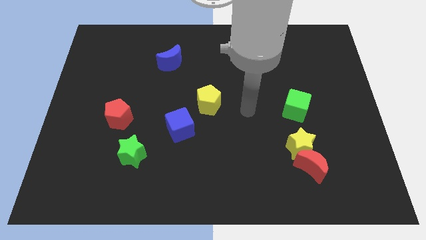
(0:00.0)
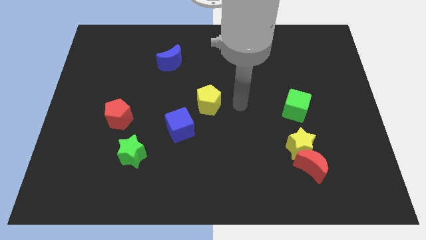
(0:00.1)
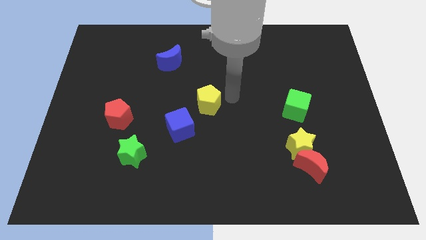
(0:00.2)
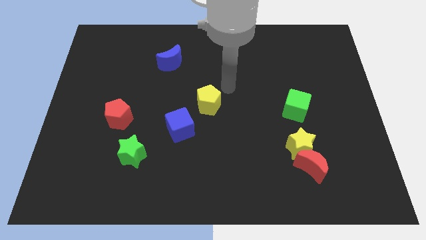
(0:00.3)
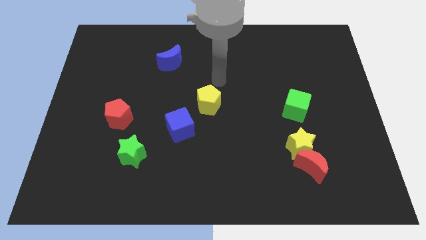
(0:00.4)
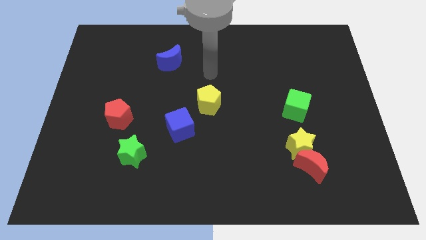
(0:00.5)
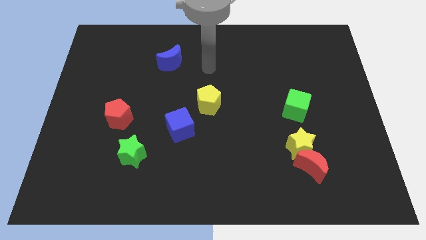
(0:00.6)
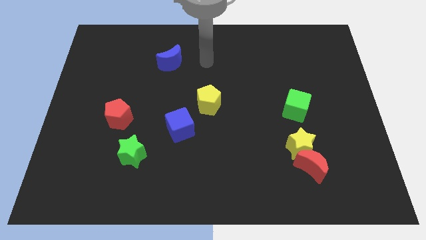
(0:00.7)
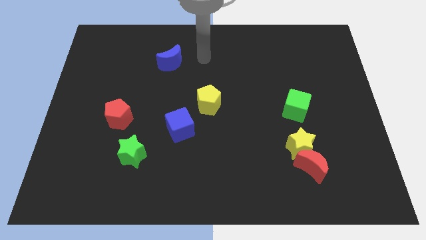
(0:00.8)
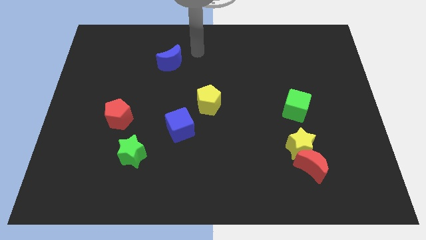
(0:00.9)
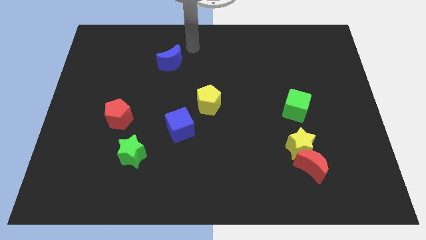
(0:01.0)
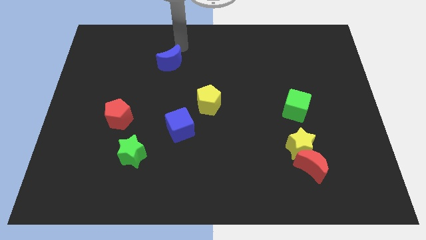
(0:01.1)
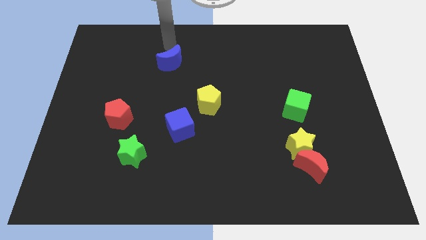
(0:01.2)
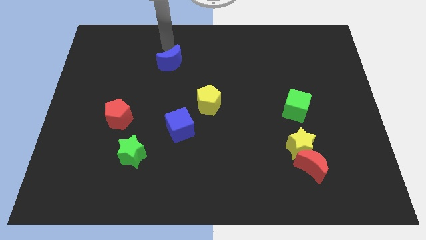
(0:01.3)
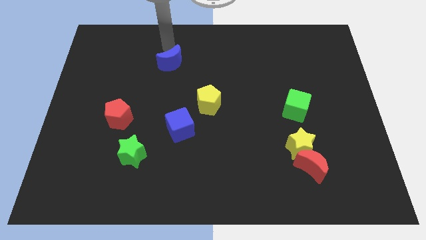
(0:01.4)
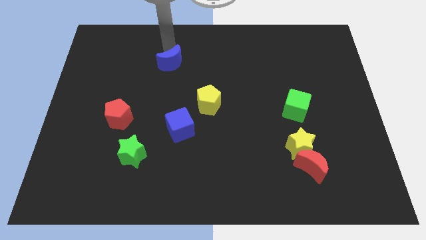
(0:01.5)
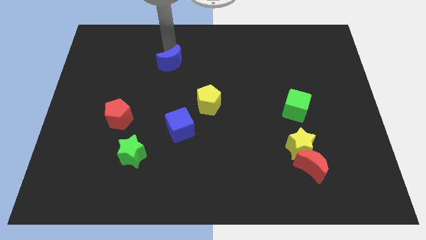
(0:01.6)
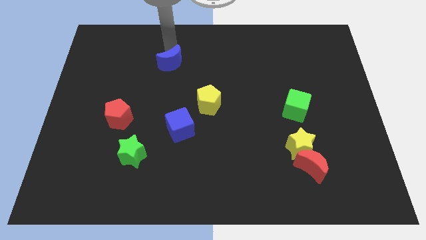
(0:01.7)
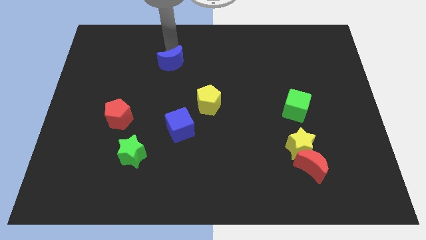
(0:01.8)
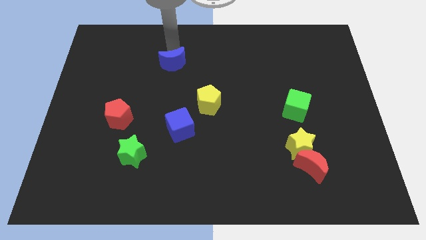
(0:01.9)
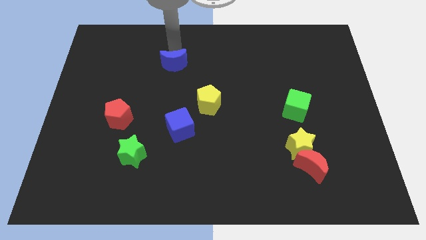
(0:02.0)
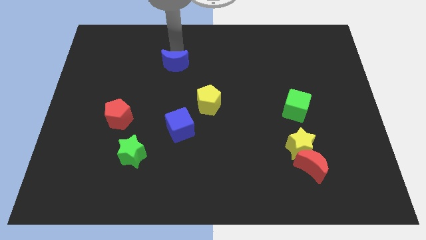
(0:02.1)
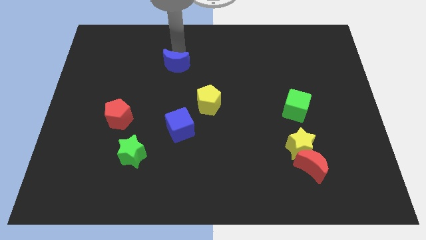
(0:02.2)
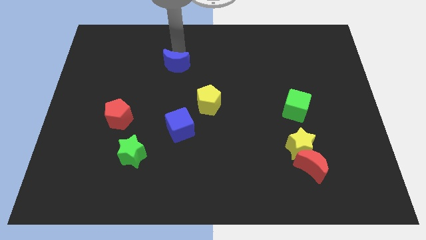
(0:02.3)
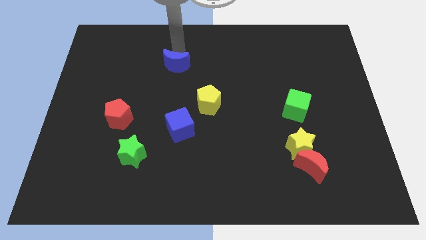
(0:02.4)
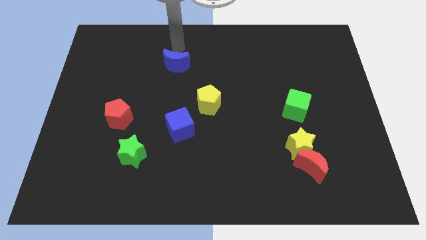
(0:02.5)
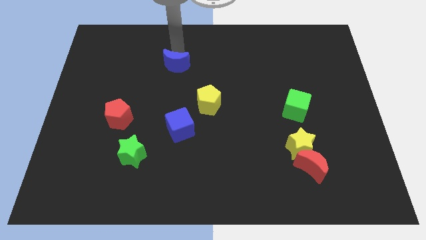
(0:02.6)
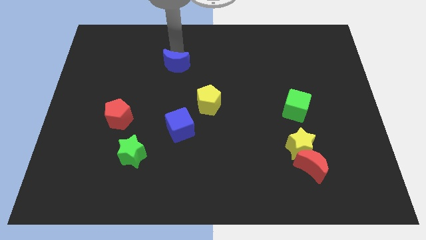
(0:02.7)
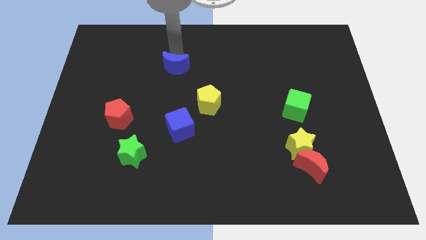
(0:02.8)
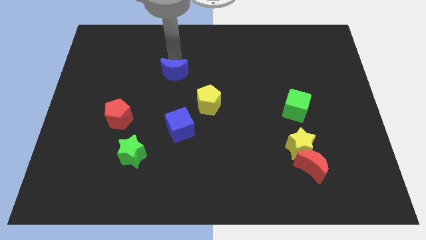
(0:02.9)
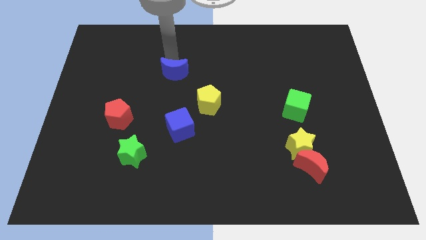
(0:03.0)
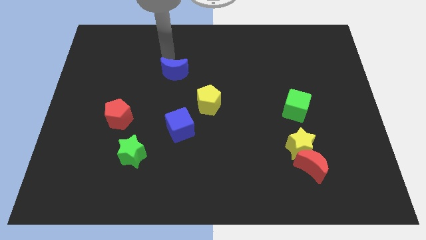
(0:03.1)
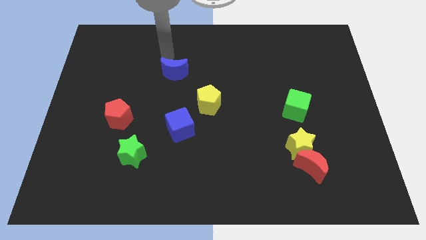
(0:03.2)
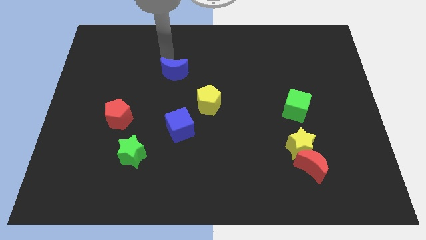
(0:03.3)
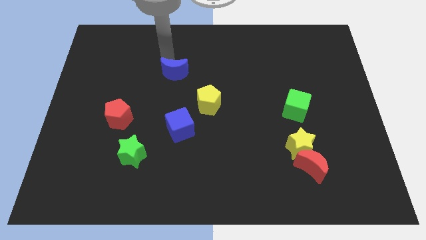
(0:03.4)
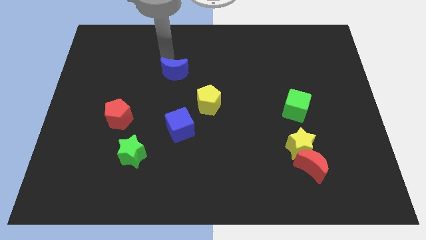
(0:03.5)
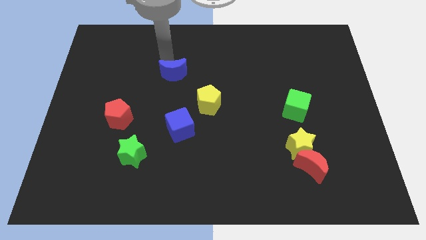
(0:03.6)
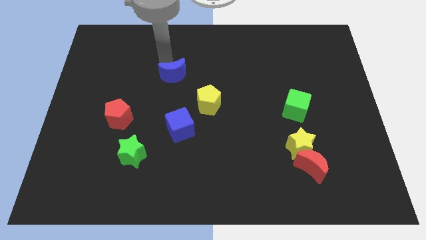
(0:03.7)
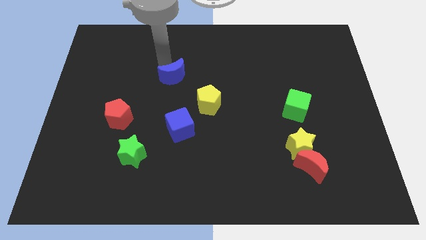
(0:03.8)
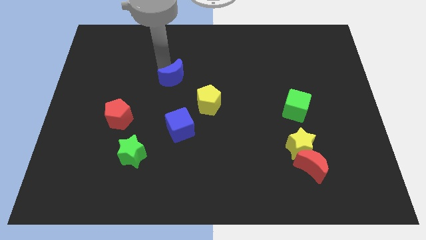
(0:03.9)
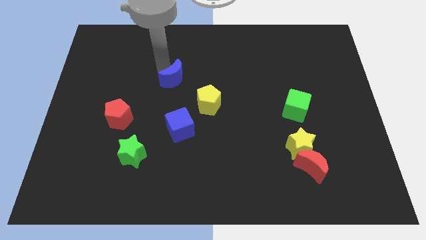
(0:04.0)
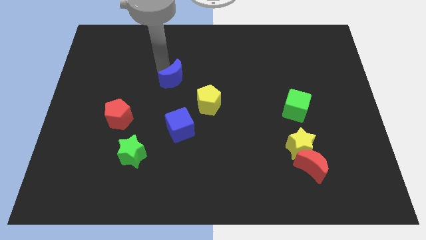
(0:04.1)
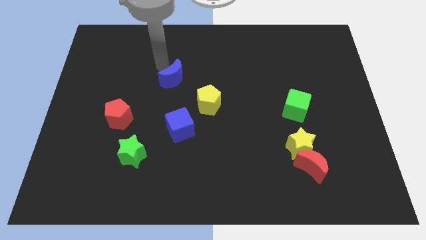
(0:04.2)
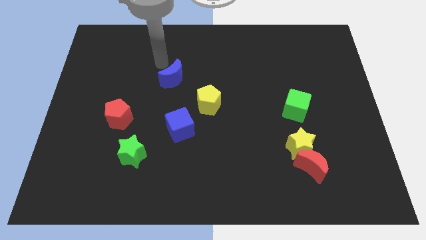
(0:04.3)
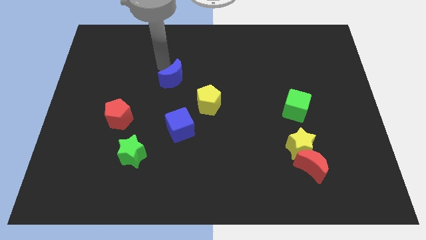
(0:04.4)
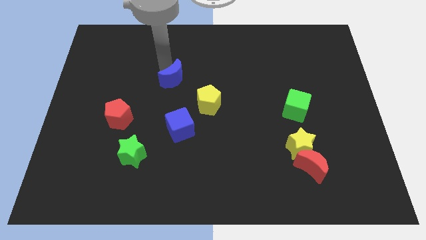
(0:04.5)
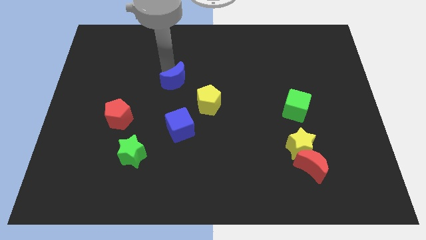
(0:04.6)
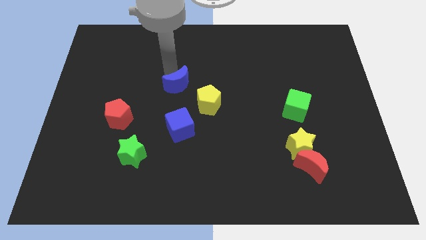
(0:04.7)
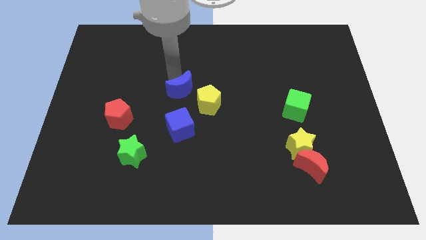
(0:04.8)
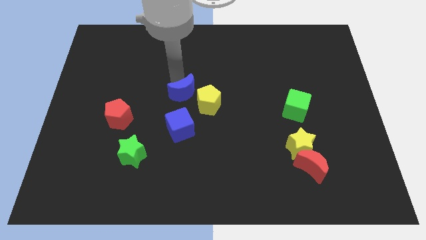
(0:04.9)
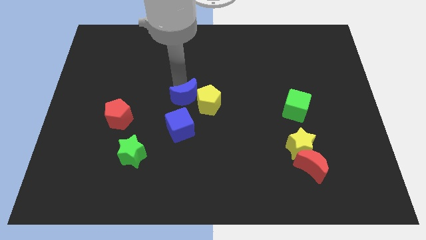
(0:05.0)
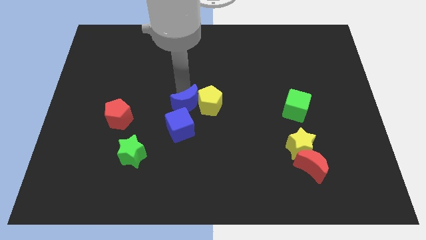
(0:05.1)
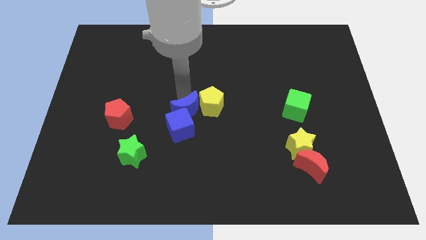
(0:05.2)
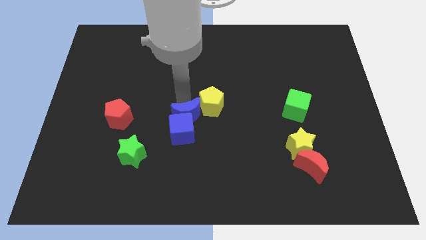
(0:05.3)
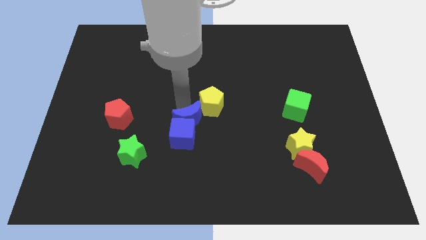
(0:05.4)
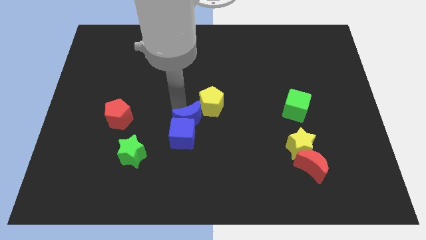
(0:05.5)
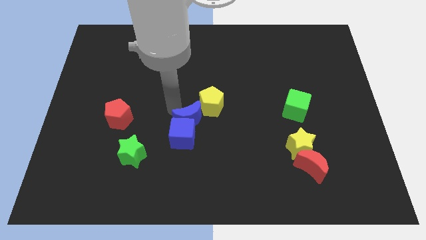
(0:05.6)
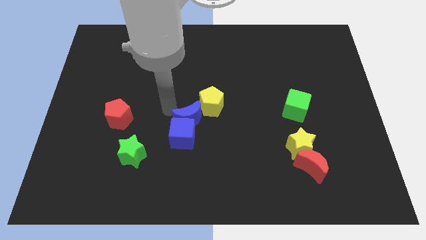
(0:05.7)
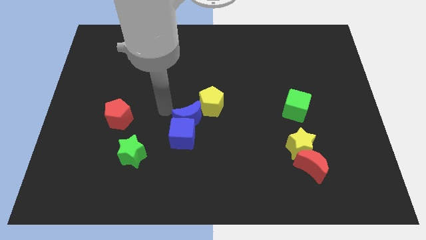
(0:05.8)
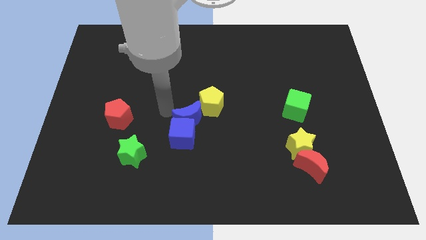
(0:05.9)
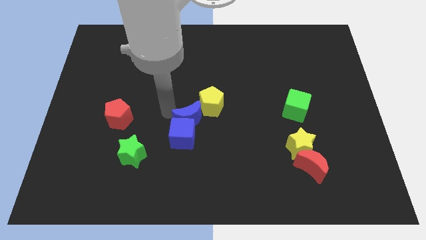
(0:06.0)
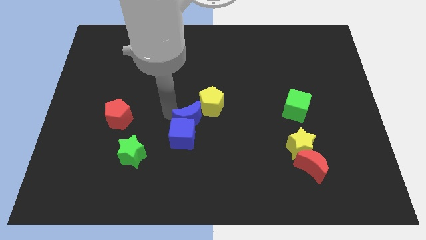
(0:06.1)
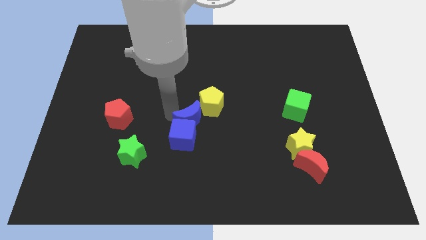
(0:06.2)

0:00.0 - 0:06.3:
slide the blue moon to the bottom side of the yellow pentagon

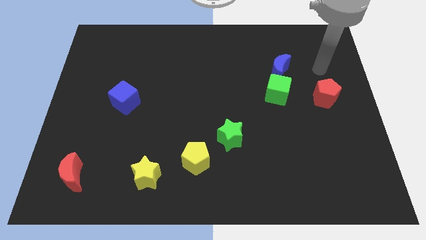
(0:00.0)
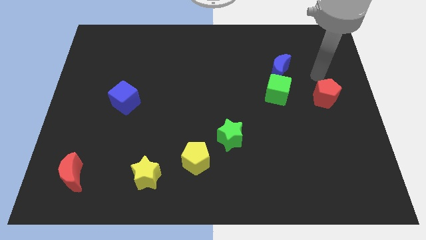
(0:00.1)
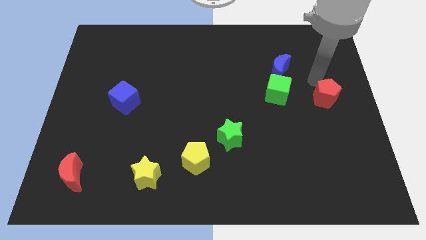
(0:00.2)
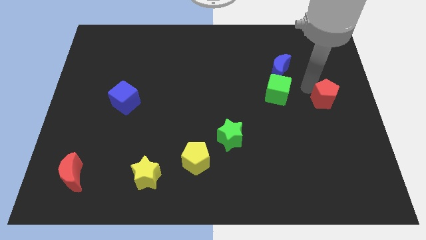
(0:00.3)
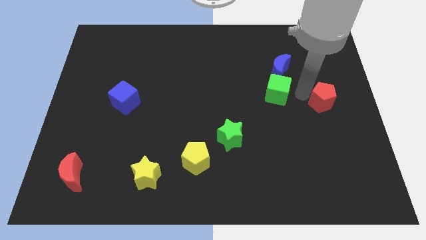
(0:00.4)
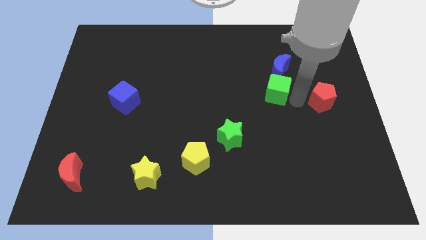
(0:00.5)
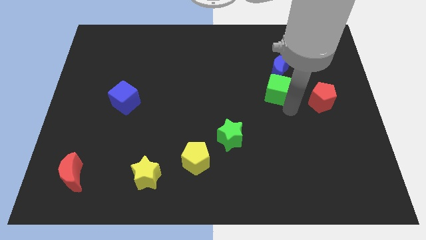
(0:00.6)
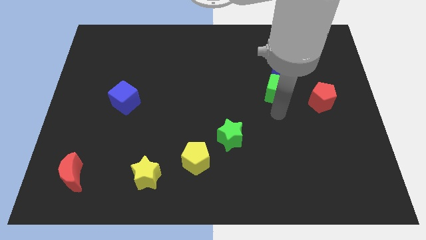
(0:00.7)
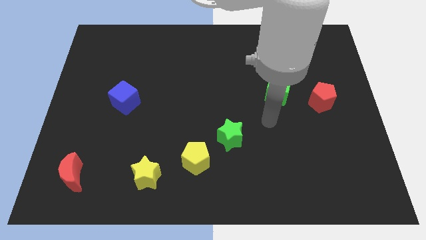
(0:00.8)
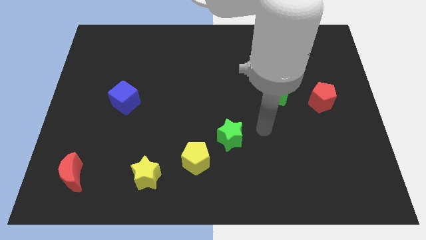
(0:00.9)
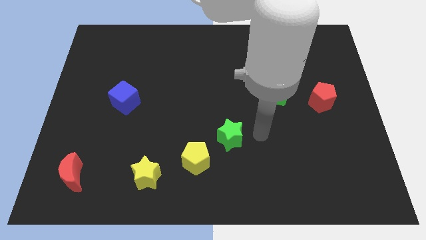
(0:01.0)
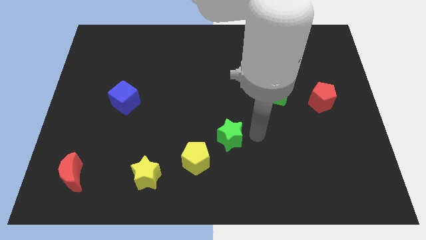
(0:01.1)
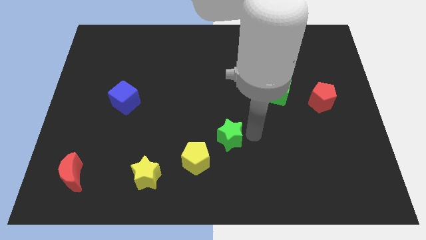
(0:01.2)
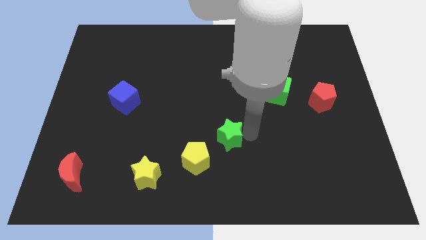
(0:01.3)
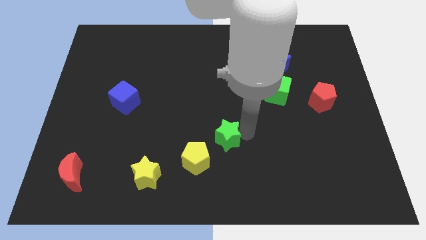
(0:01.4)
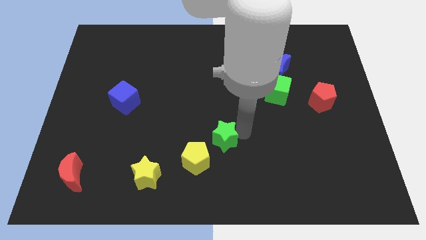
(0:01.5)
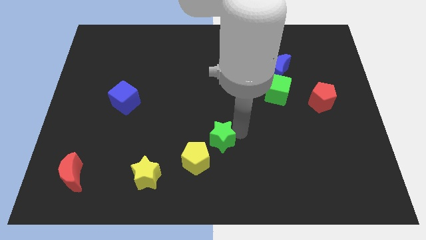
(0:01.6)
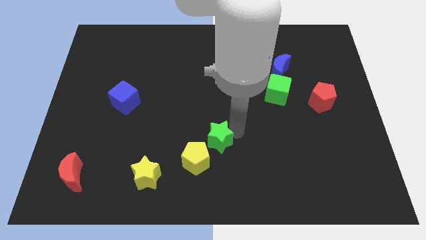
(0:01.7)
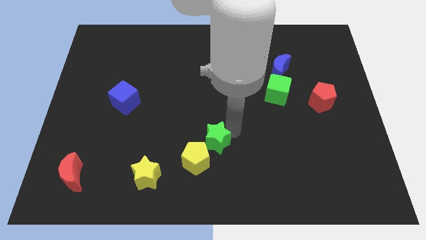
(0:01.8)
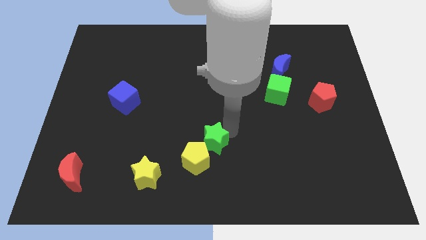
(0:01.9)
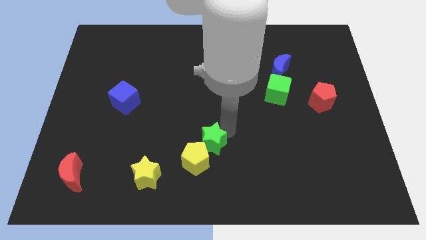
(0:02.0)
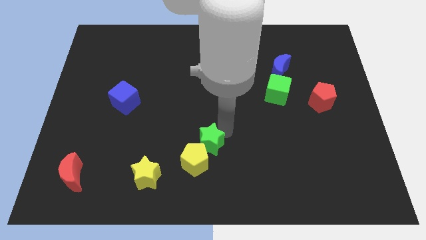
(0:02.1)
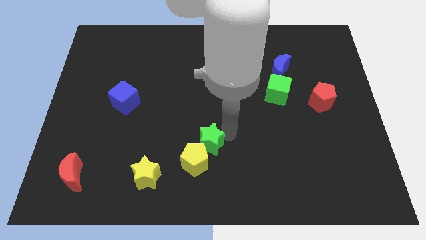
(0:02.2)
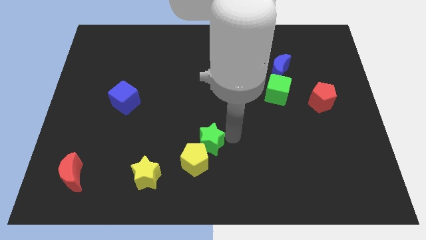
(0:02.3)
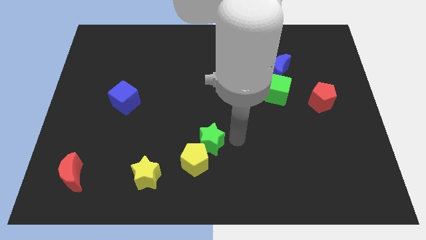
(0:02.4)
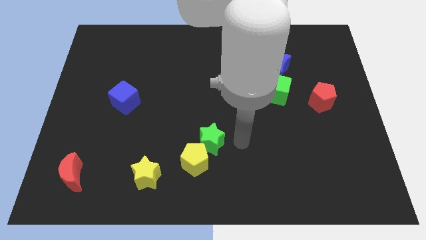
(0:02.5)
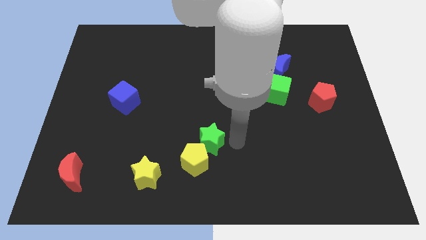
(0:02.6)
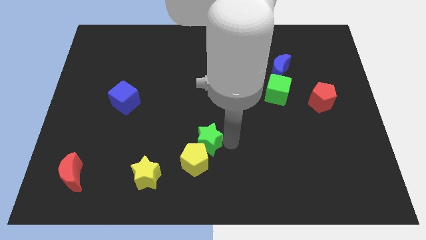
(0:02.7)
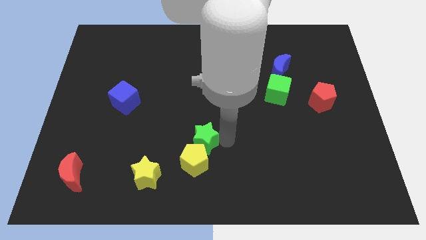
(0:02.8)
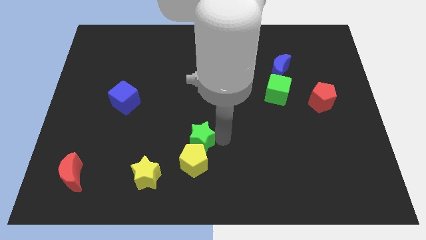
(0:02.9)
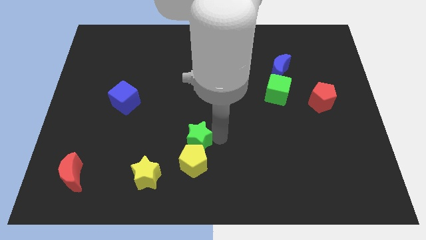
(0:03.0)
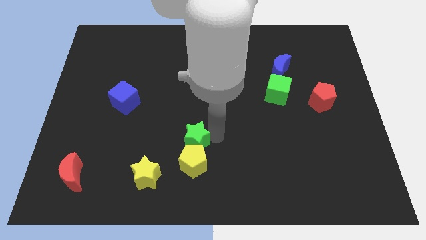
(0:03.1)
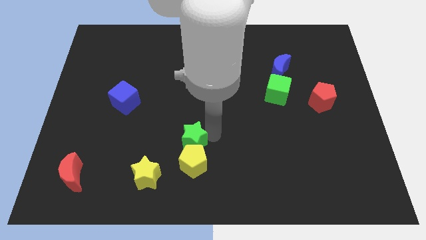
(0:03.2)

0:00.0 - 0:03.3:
push the green star to the top right side of the yellow star
